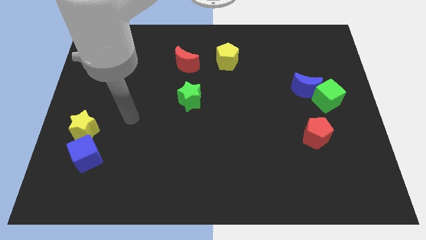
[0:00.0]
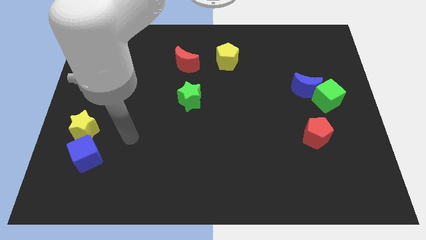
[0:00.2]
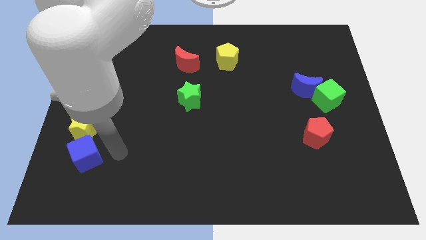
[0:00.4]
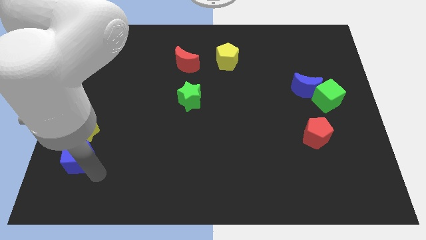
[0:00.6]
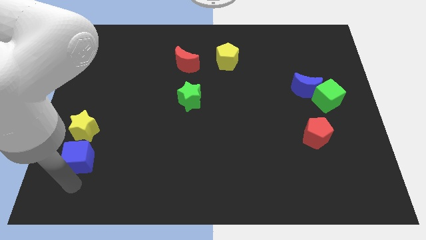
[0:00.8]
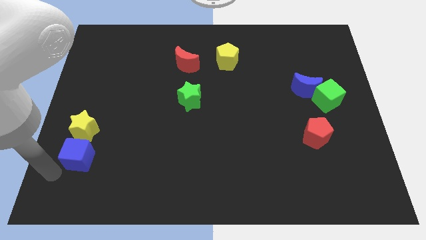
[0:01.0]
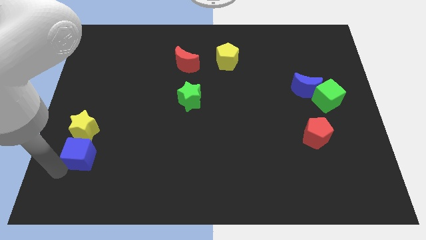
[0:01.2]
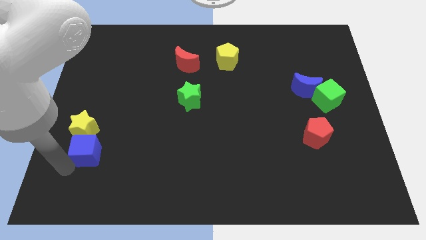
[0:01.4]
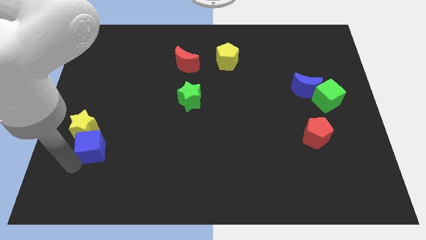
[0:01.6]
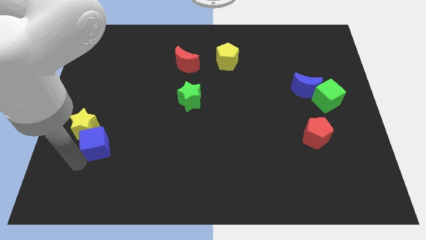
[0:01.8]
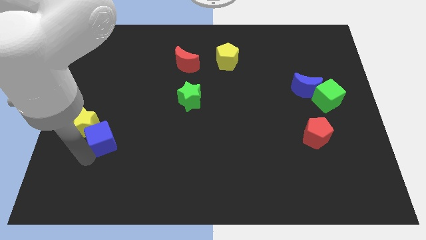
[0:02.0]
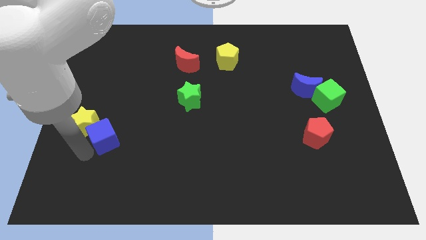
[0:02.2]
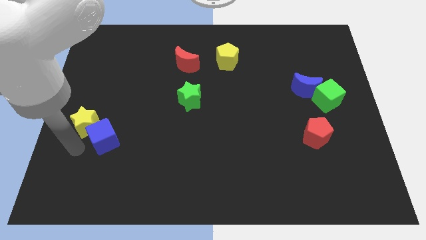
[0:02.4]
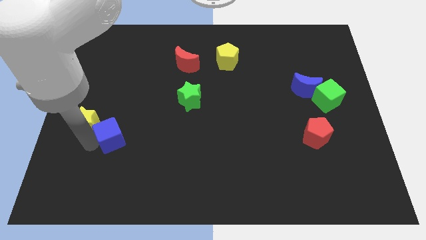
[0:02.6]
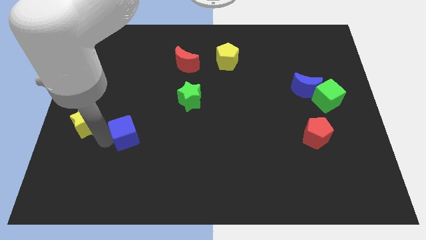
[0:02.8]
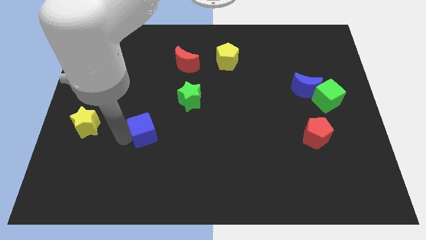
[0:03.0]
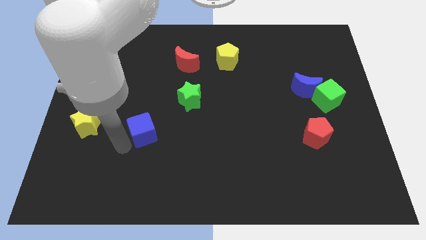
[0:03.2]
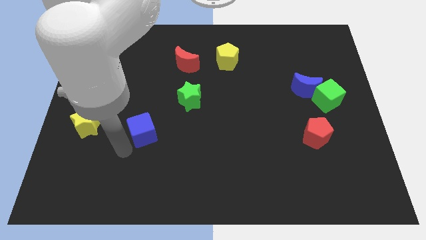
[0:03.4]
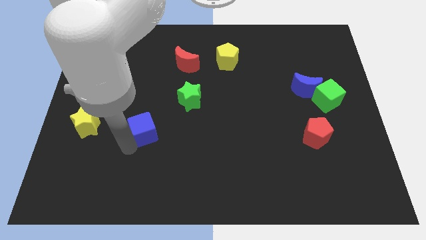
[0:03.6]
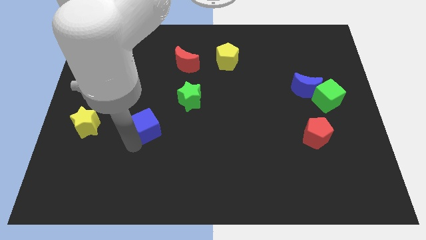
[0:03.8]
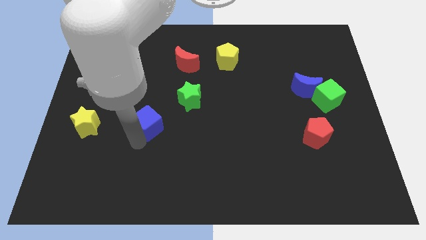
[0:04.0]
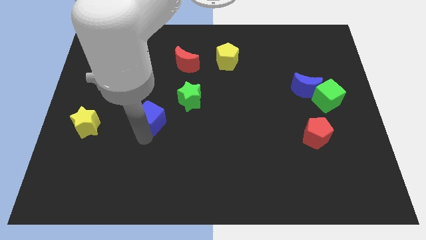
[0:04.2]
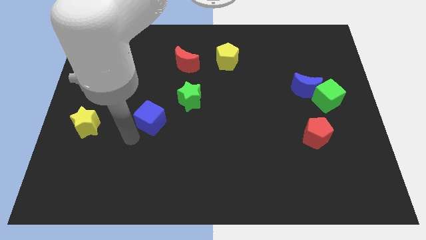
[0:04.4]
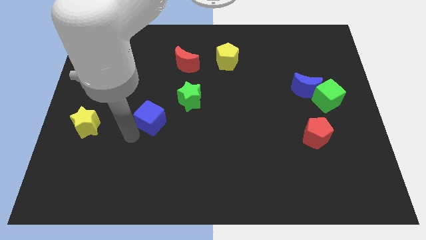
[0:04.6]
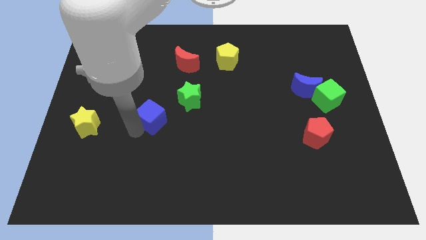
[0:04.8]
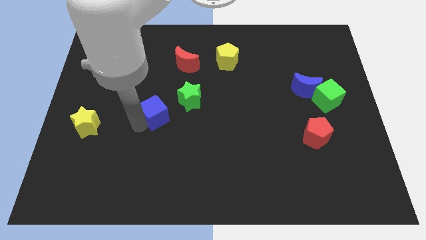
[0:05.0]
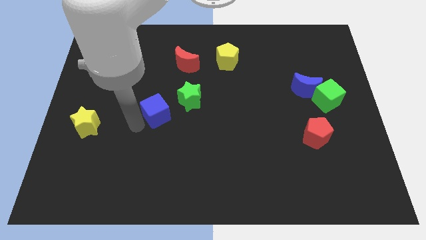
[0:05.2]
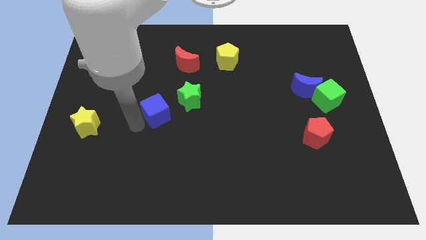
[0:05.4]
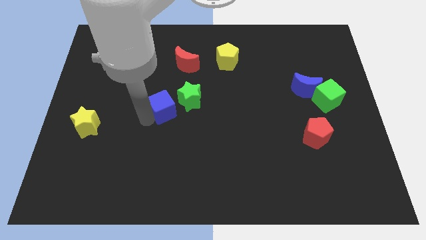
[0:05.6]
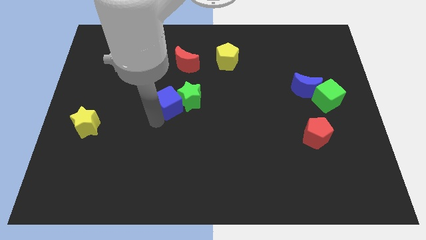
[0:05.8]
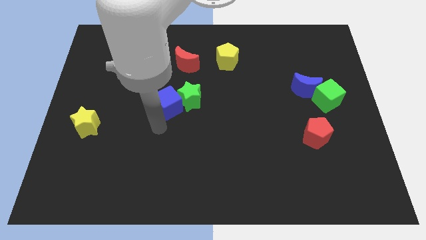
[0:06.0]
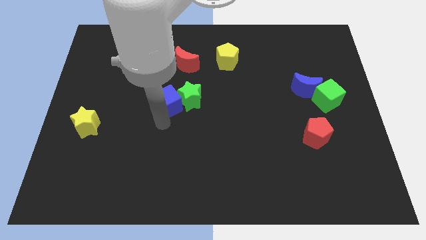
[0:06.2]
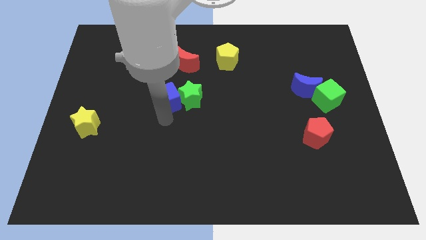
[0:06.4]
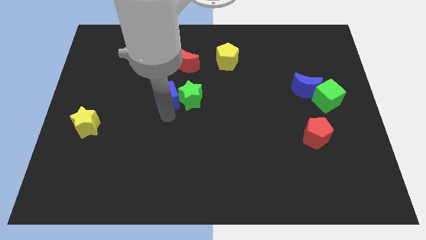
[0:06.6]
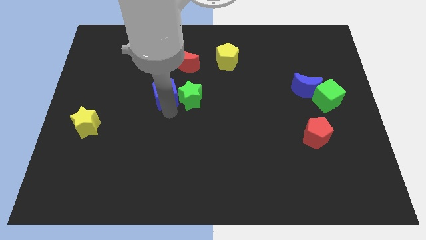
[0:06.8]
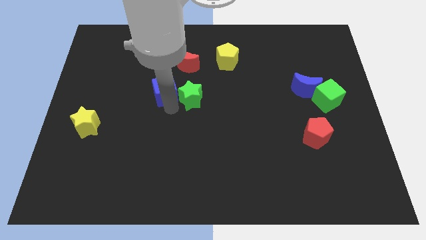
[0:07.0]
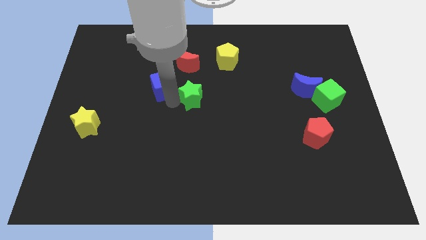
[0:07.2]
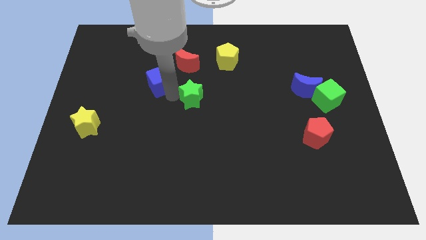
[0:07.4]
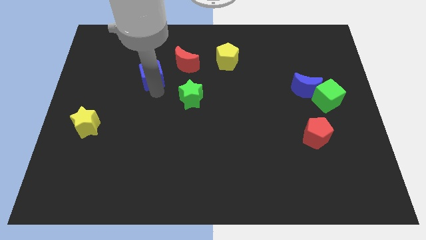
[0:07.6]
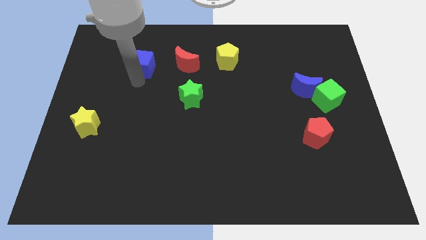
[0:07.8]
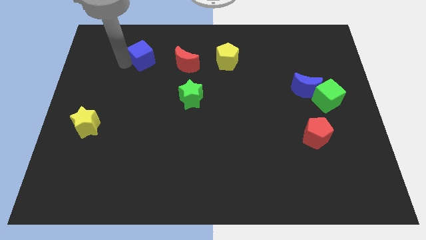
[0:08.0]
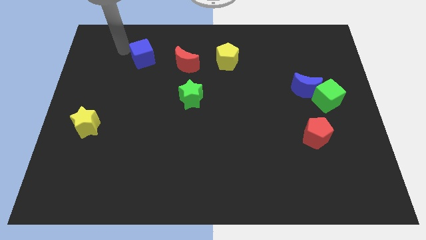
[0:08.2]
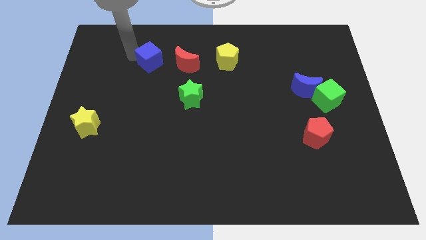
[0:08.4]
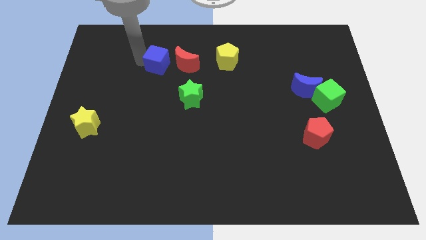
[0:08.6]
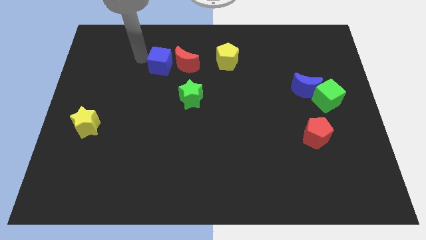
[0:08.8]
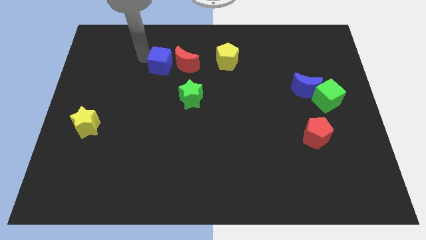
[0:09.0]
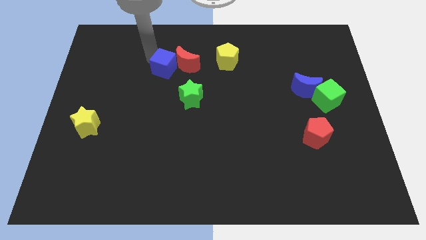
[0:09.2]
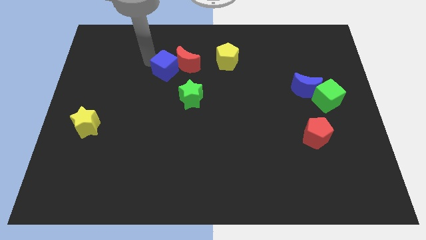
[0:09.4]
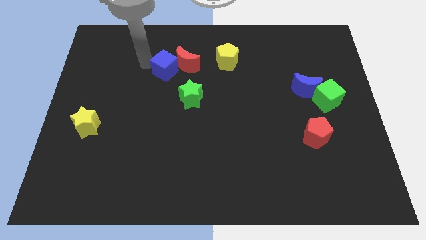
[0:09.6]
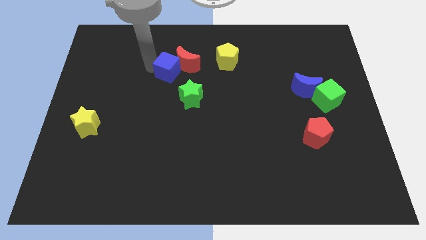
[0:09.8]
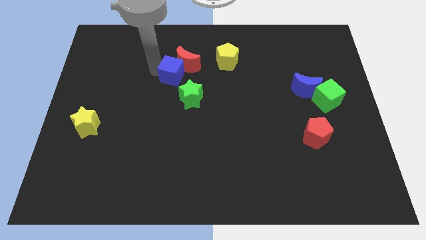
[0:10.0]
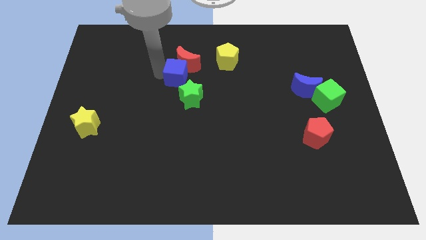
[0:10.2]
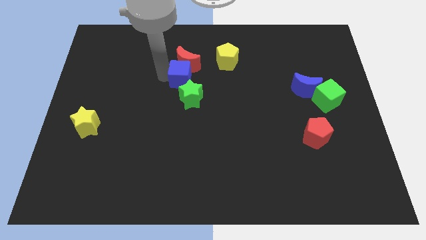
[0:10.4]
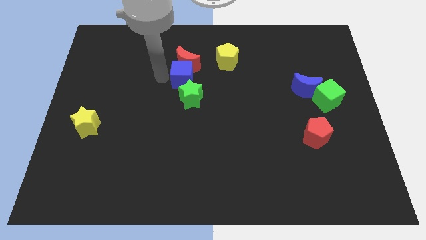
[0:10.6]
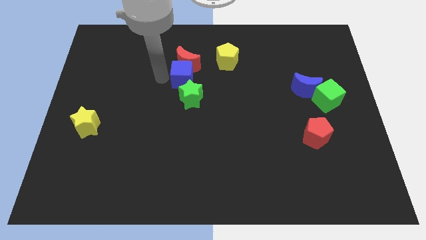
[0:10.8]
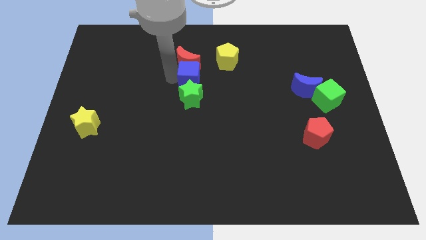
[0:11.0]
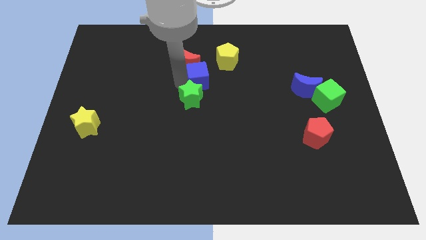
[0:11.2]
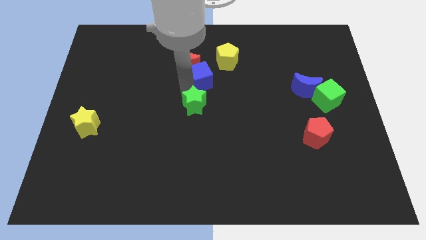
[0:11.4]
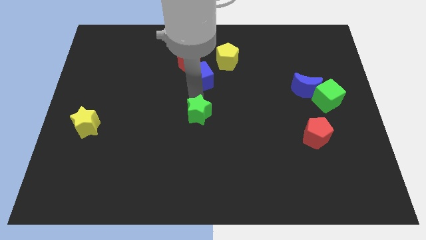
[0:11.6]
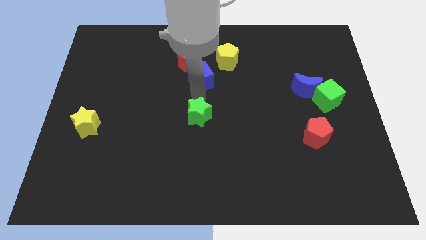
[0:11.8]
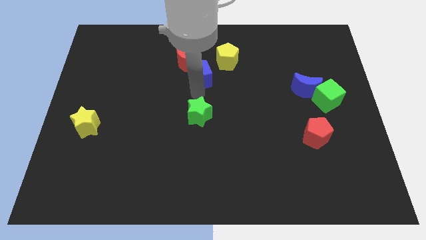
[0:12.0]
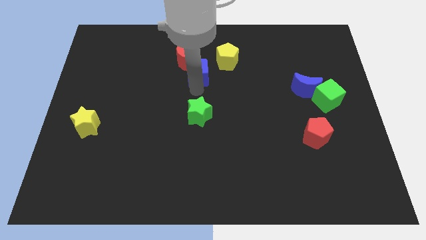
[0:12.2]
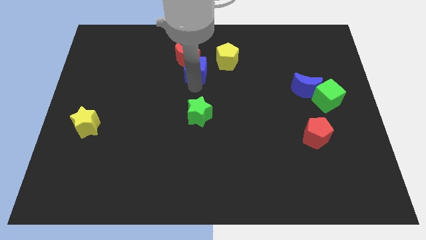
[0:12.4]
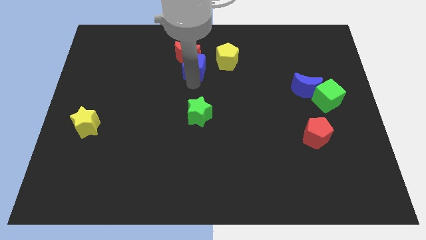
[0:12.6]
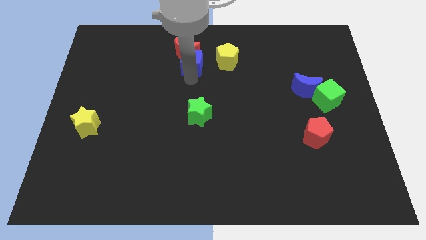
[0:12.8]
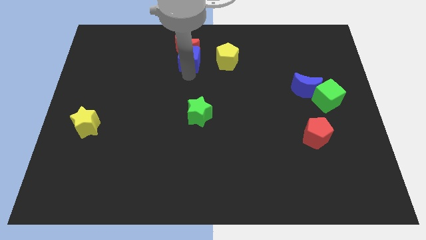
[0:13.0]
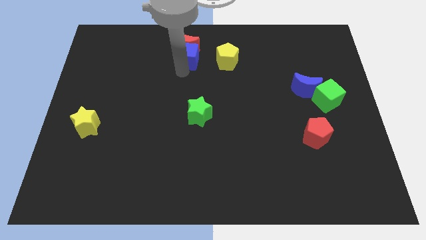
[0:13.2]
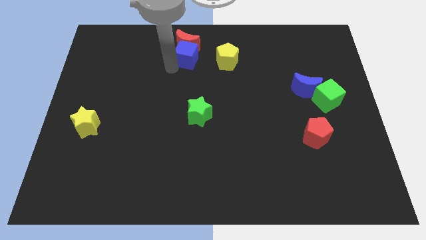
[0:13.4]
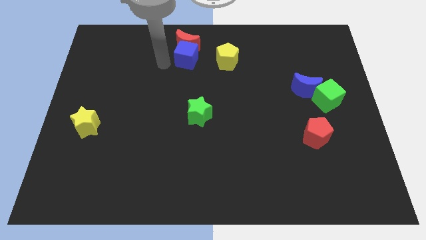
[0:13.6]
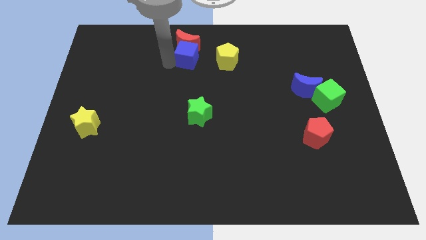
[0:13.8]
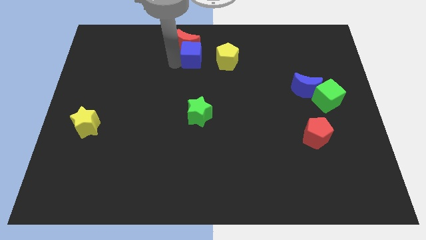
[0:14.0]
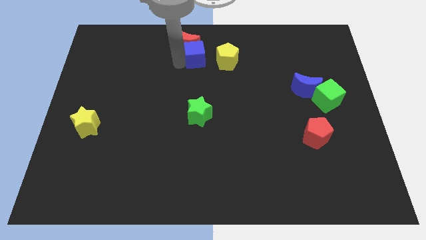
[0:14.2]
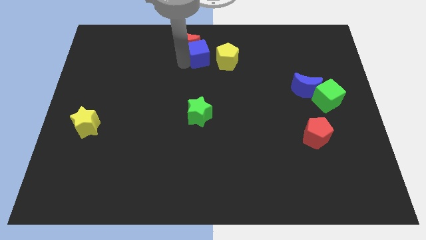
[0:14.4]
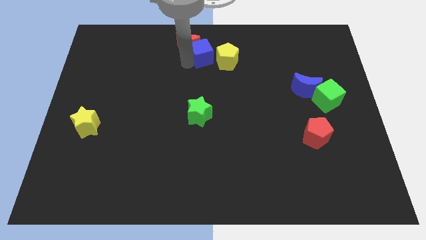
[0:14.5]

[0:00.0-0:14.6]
put the blue cube to the top side
